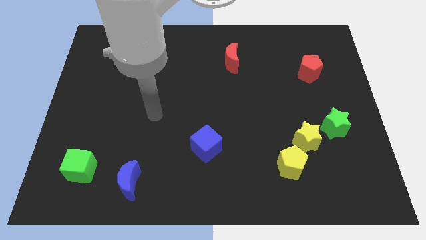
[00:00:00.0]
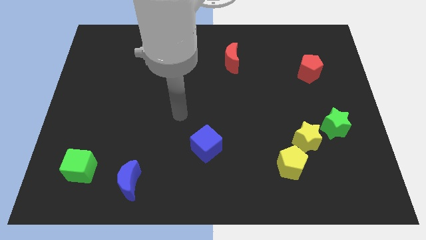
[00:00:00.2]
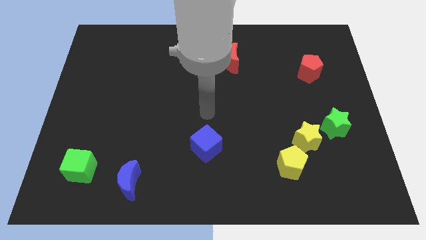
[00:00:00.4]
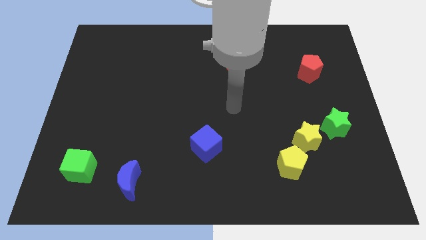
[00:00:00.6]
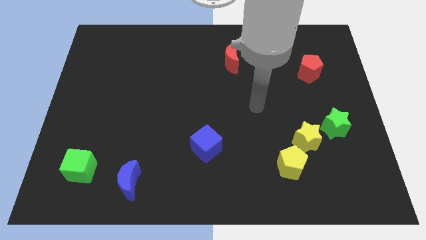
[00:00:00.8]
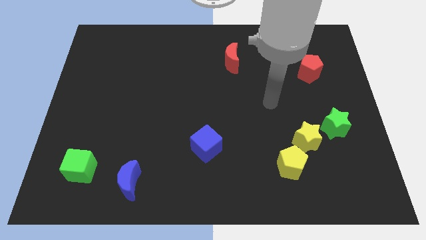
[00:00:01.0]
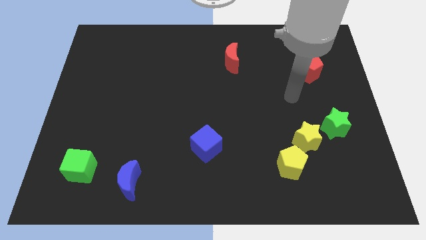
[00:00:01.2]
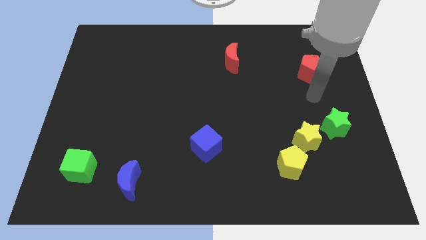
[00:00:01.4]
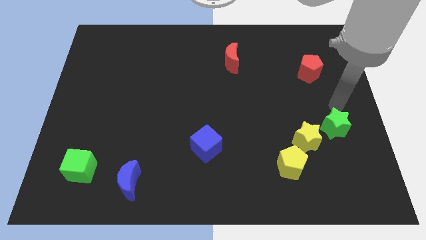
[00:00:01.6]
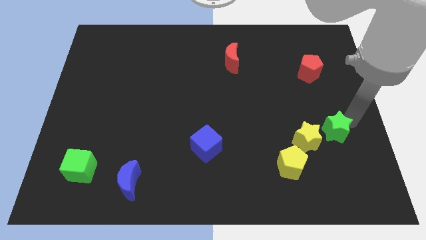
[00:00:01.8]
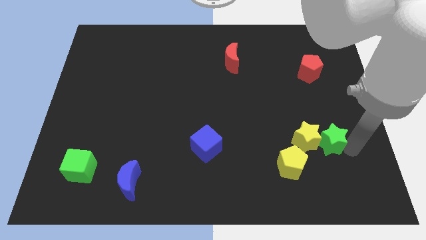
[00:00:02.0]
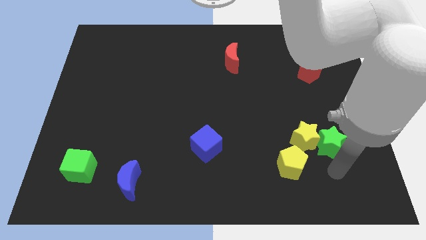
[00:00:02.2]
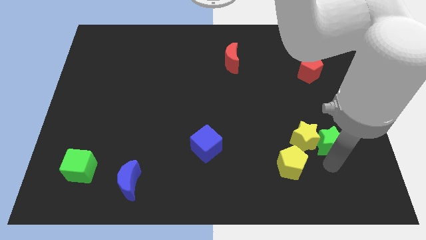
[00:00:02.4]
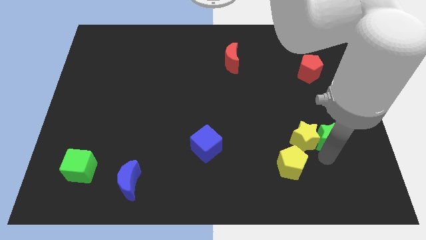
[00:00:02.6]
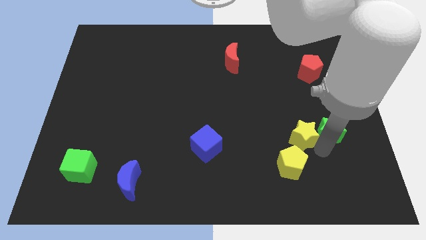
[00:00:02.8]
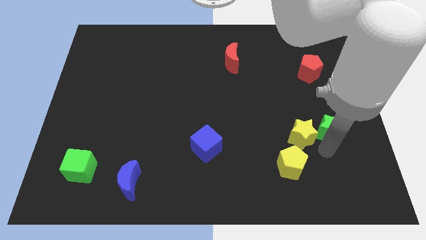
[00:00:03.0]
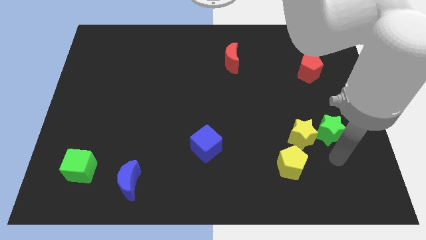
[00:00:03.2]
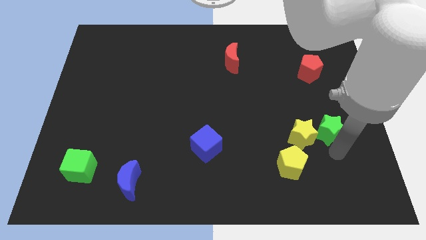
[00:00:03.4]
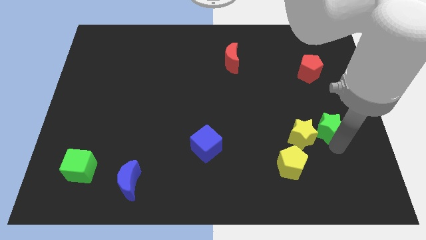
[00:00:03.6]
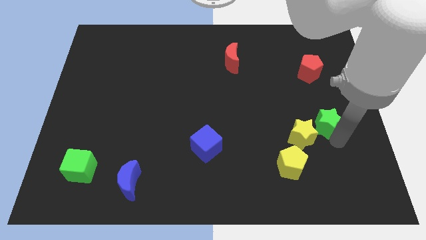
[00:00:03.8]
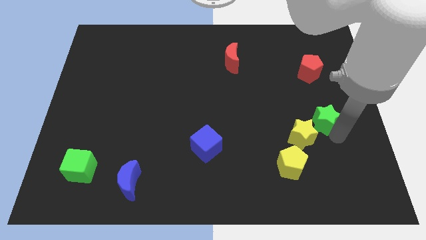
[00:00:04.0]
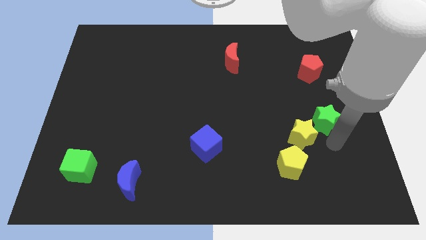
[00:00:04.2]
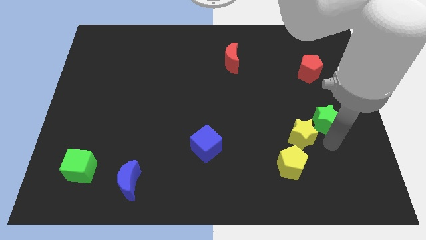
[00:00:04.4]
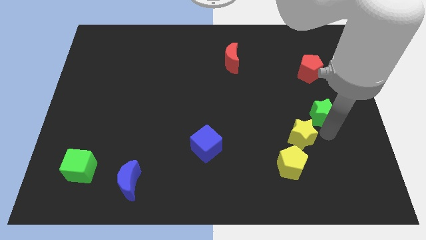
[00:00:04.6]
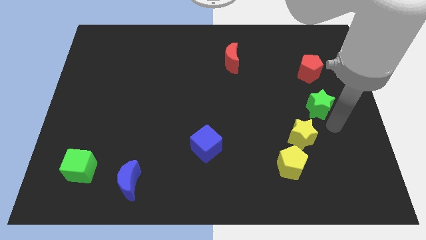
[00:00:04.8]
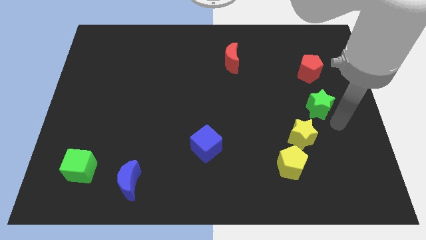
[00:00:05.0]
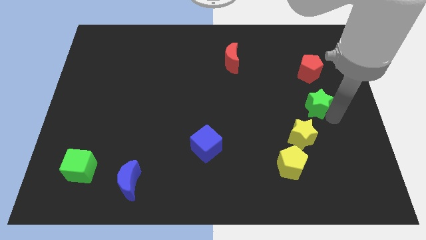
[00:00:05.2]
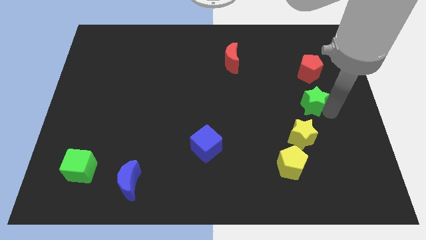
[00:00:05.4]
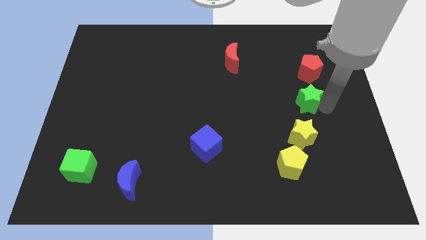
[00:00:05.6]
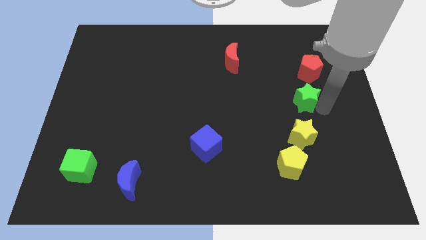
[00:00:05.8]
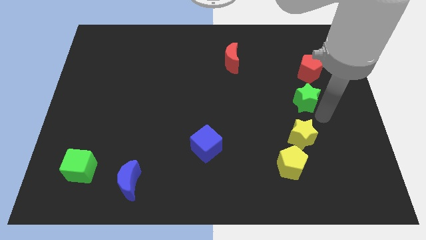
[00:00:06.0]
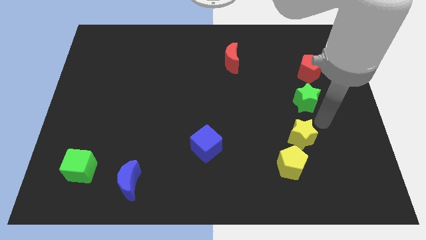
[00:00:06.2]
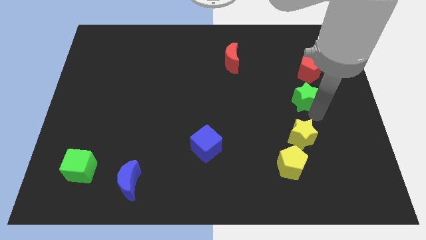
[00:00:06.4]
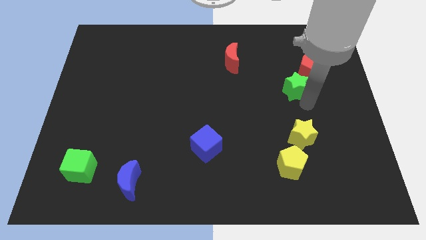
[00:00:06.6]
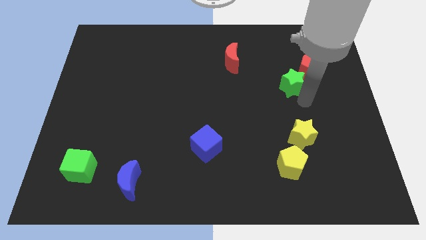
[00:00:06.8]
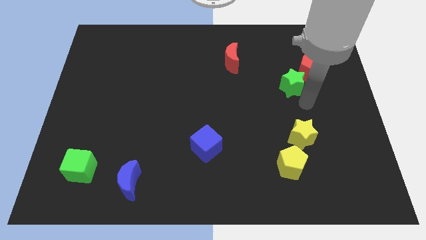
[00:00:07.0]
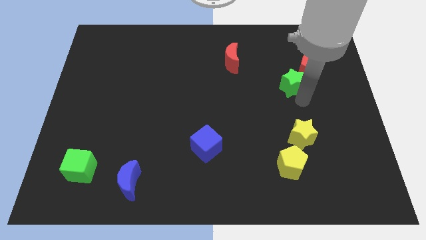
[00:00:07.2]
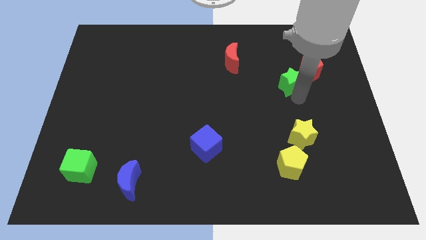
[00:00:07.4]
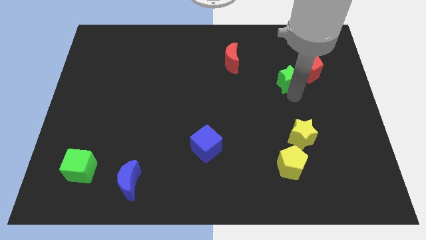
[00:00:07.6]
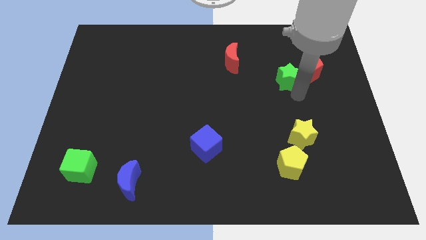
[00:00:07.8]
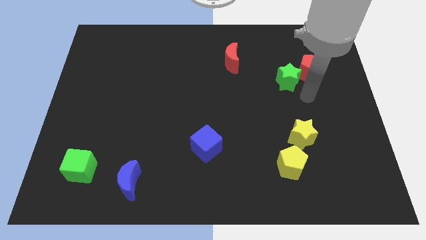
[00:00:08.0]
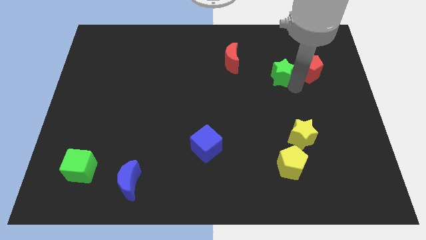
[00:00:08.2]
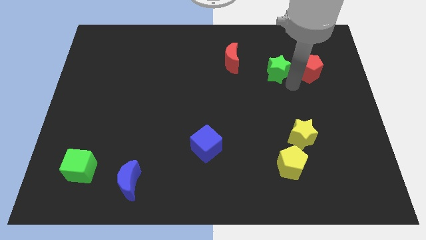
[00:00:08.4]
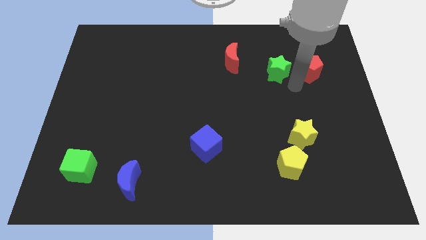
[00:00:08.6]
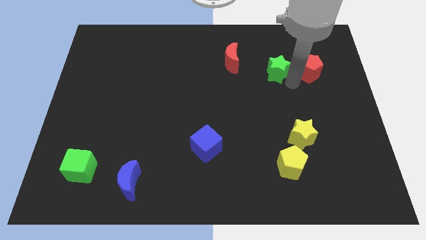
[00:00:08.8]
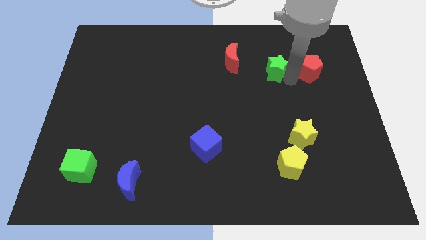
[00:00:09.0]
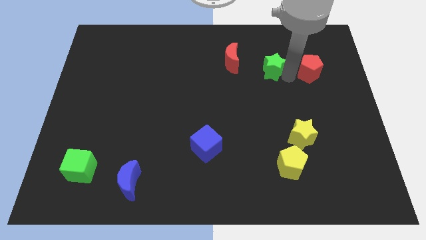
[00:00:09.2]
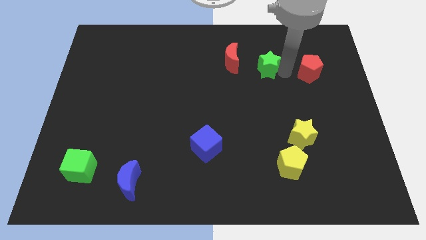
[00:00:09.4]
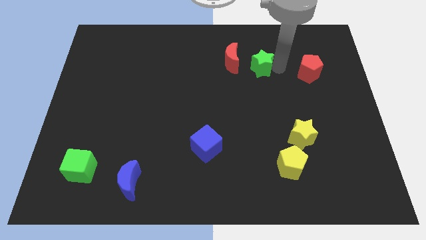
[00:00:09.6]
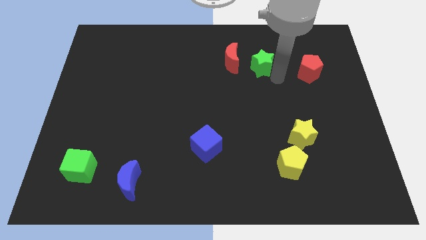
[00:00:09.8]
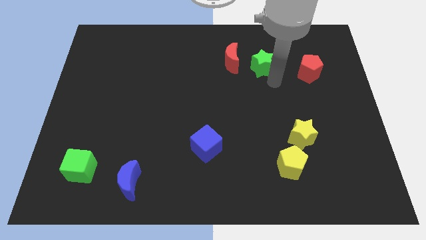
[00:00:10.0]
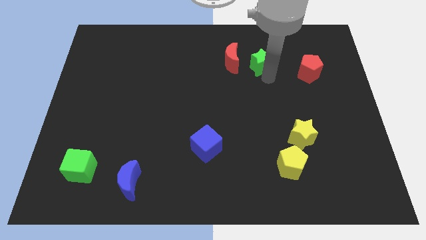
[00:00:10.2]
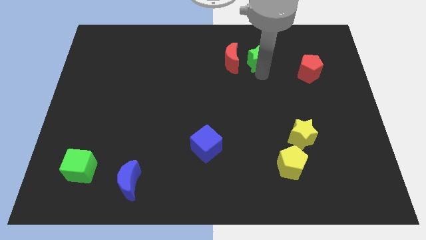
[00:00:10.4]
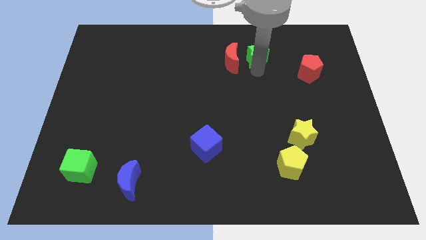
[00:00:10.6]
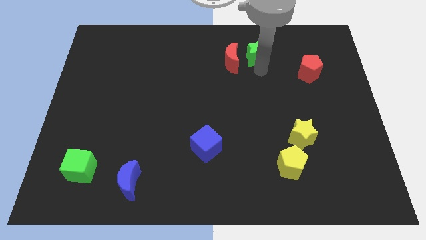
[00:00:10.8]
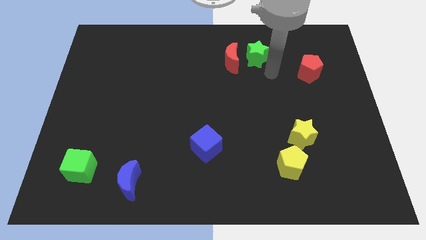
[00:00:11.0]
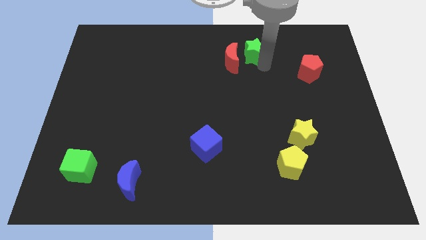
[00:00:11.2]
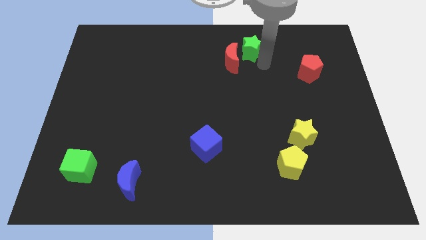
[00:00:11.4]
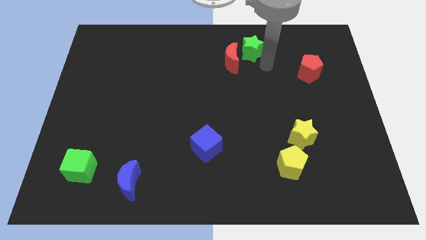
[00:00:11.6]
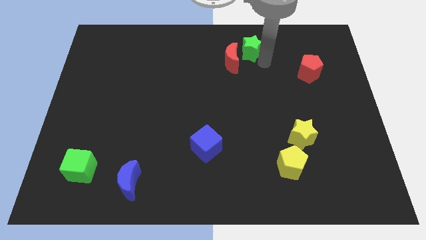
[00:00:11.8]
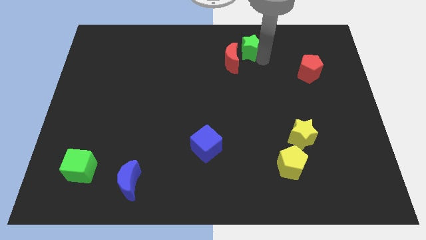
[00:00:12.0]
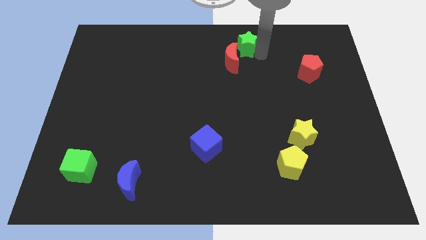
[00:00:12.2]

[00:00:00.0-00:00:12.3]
put the green star to the top
